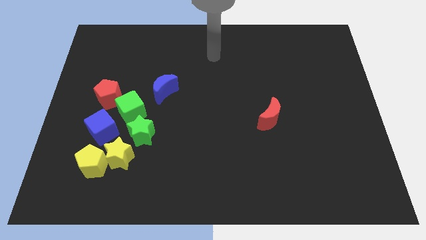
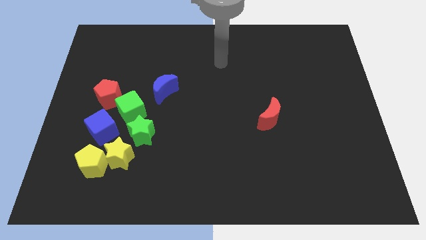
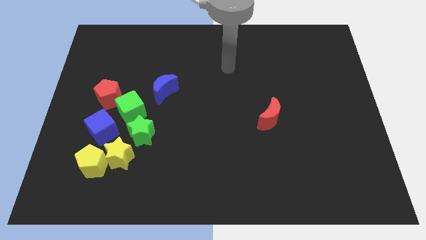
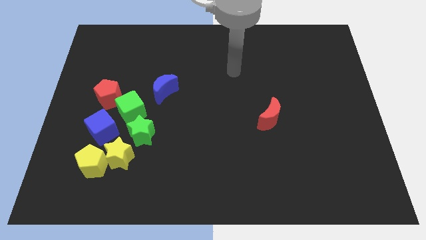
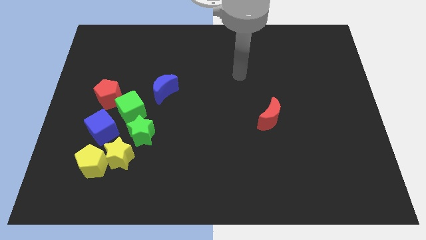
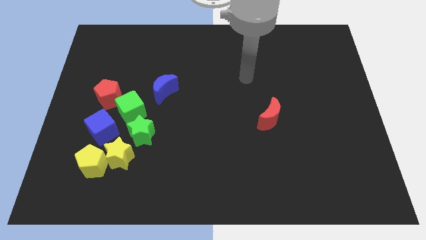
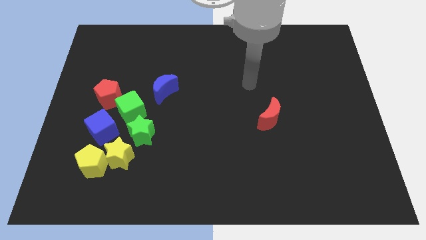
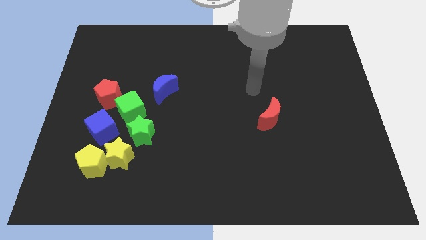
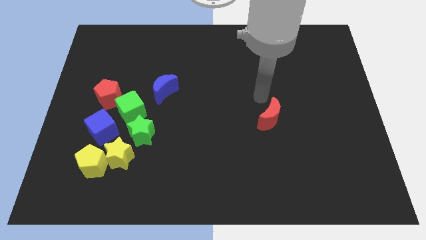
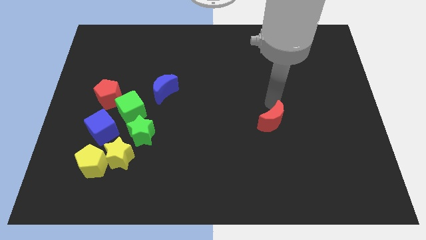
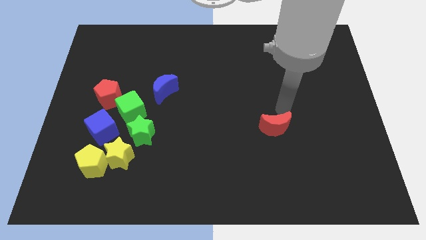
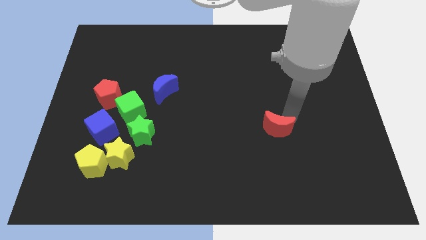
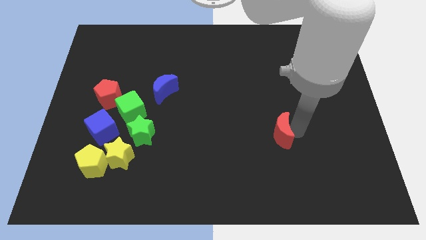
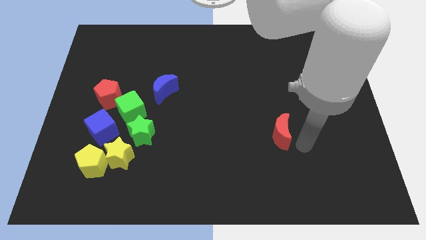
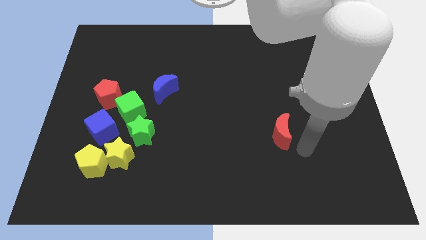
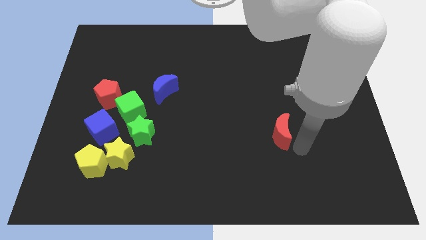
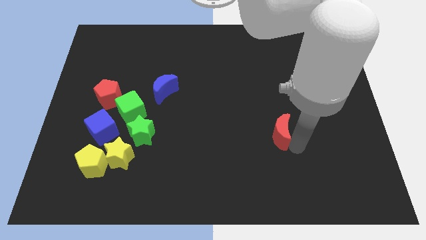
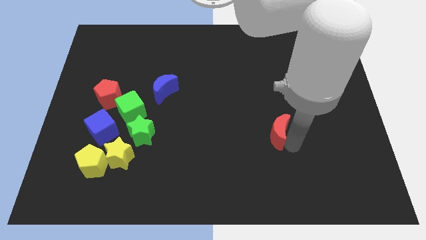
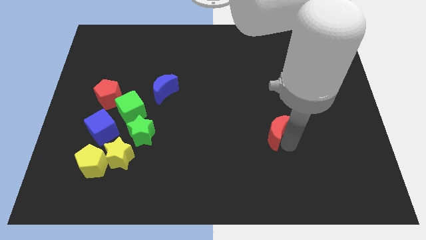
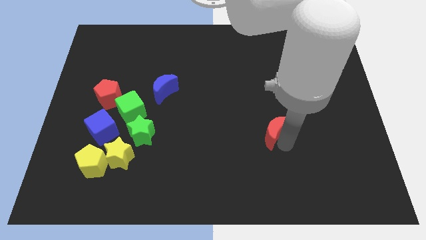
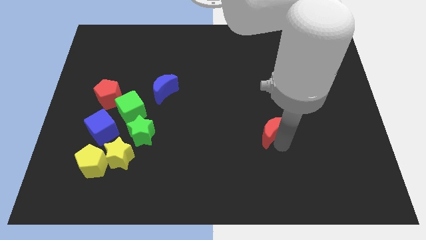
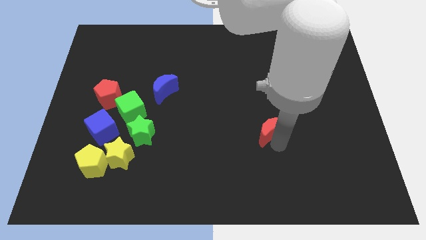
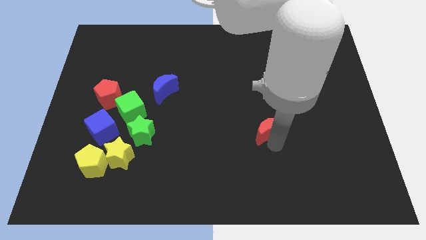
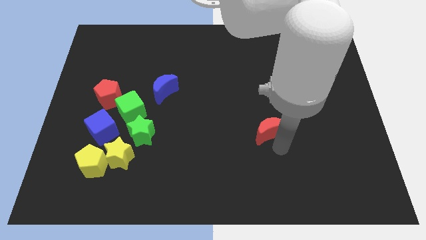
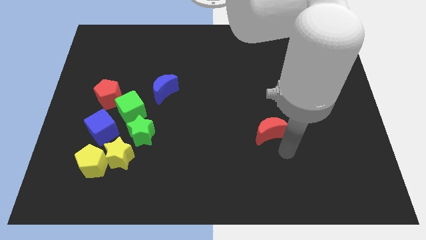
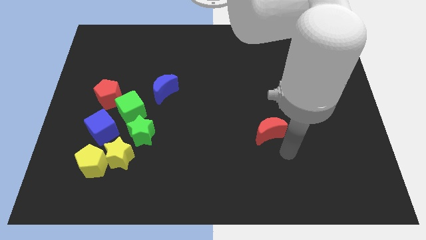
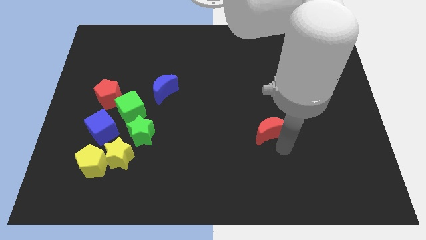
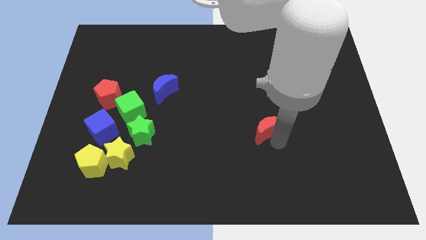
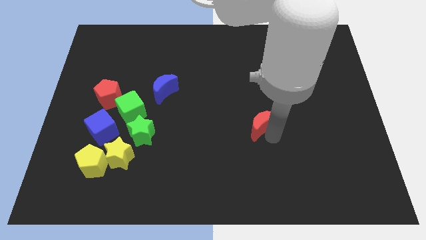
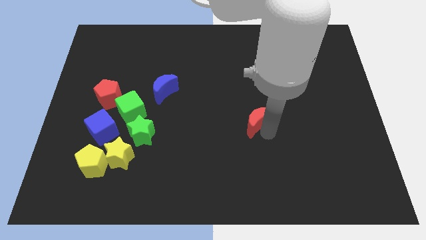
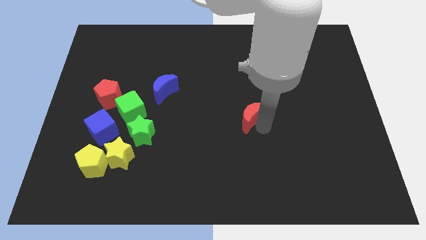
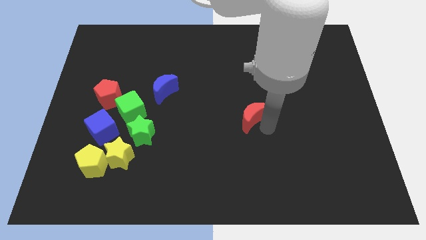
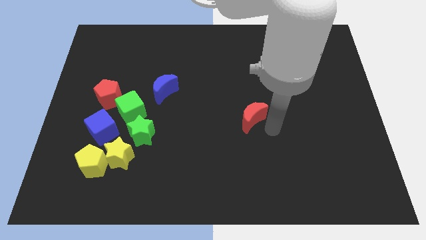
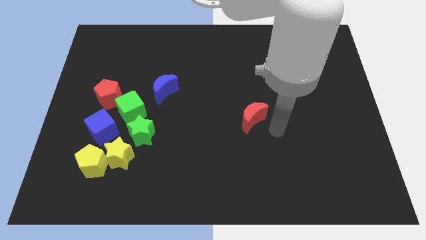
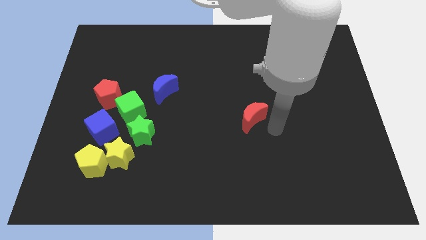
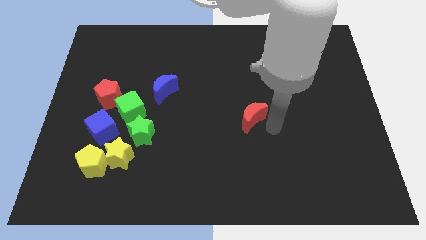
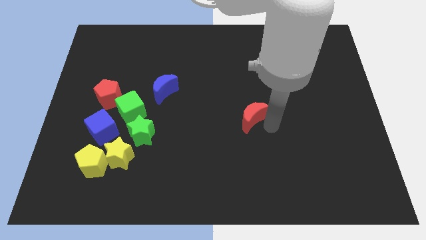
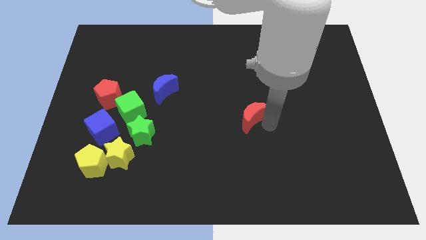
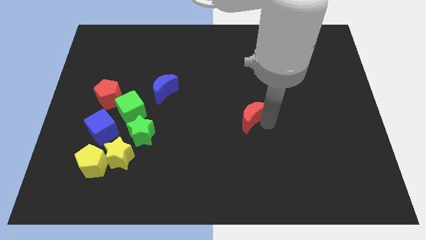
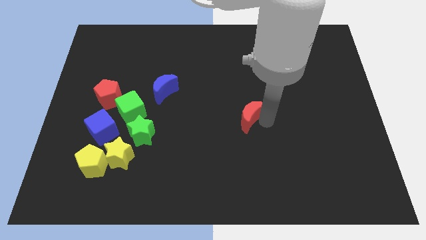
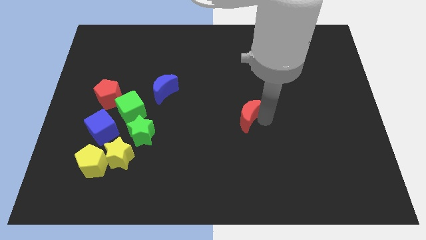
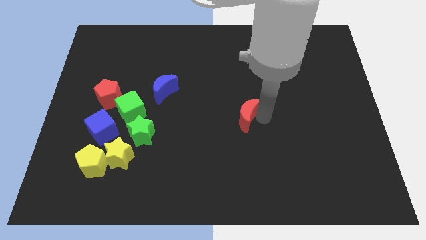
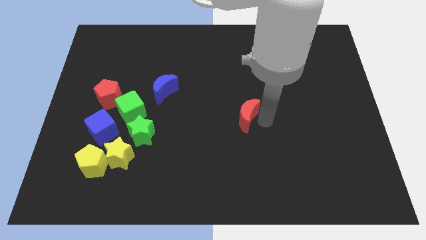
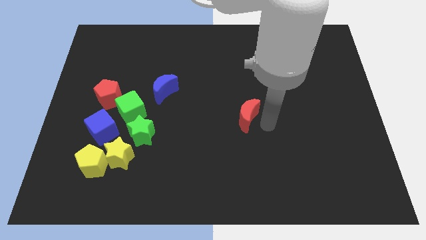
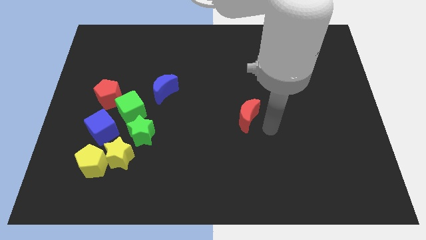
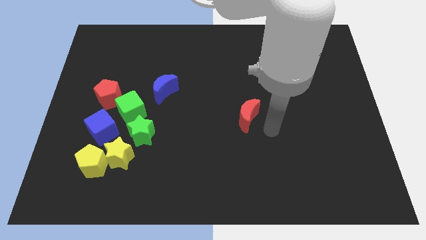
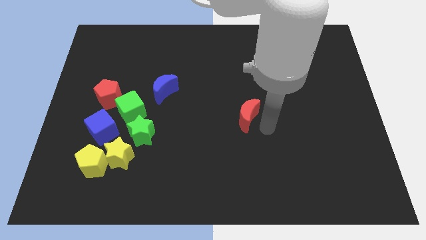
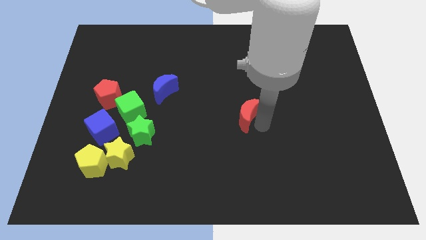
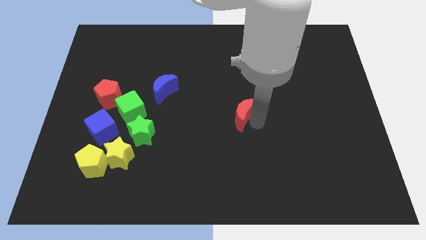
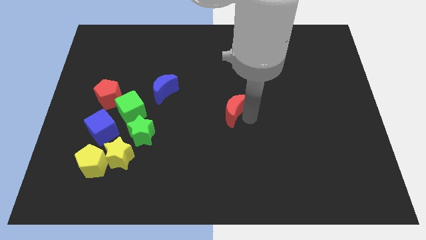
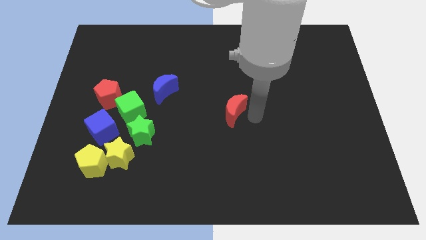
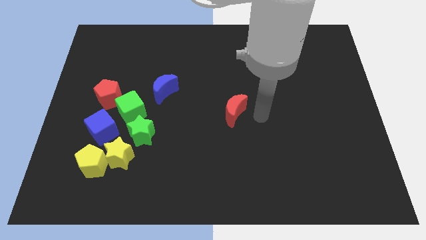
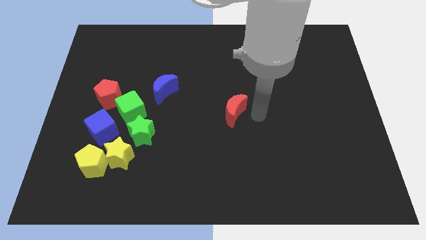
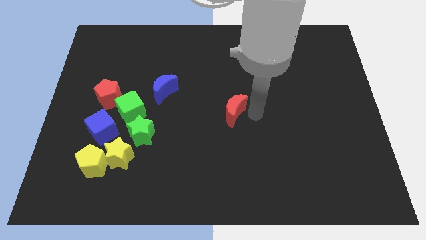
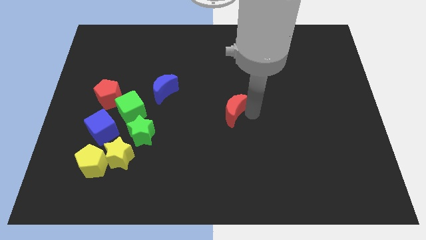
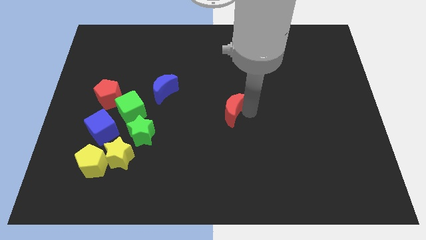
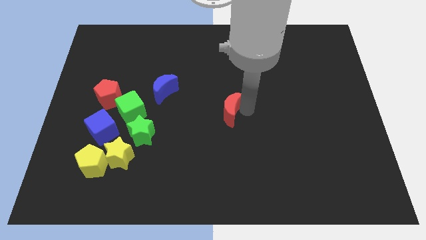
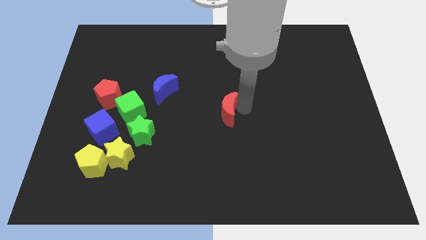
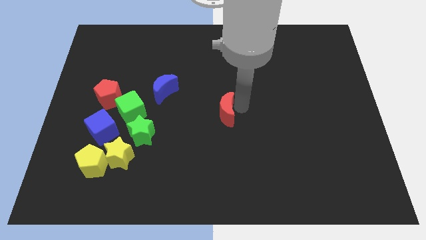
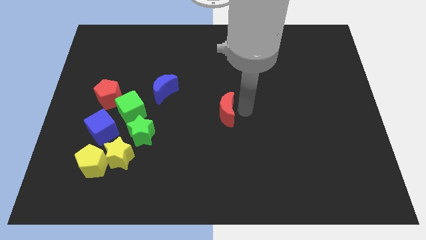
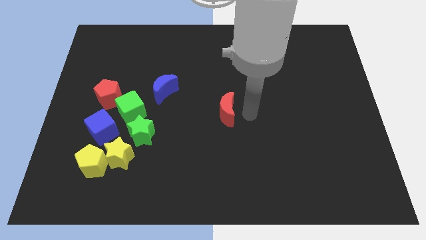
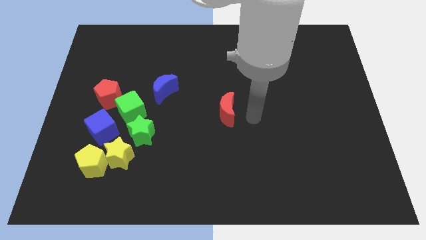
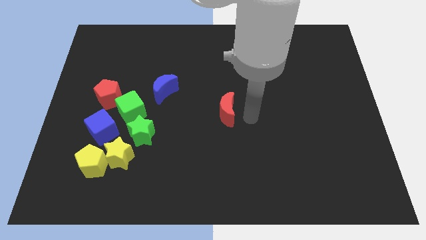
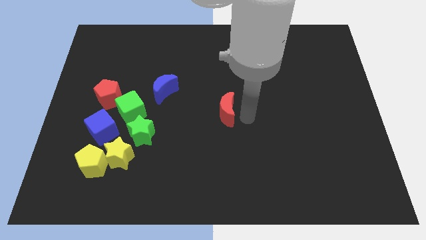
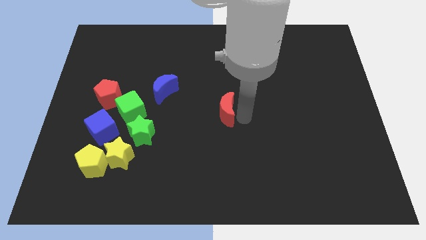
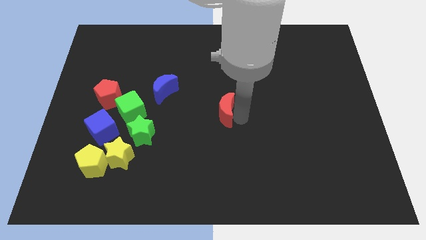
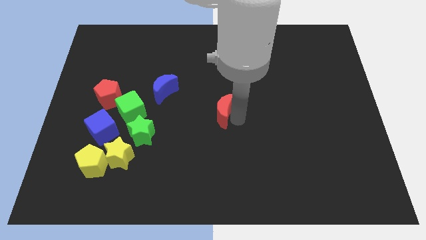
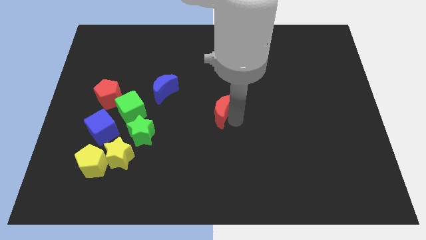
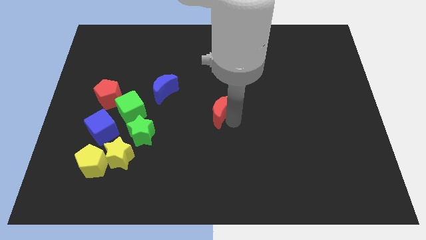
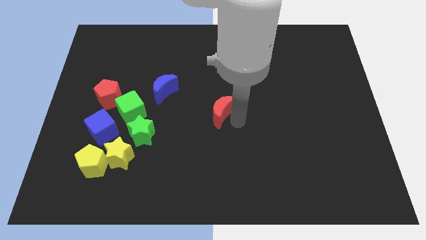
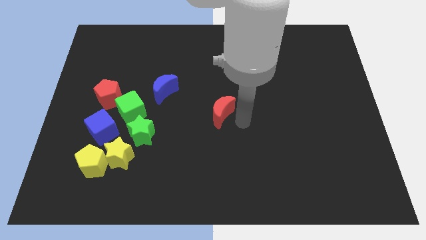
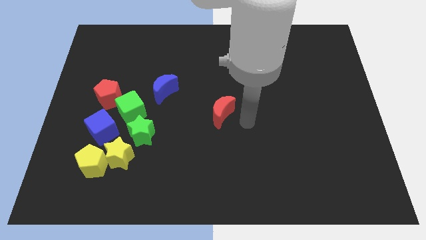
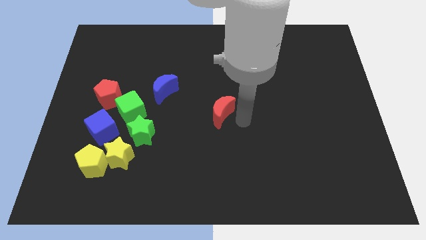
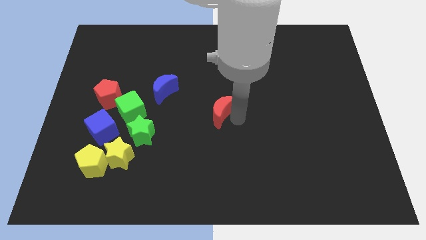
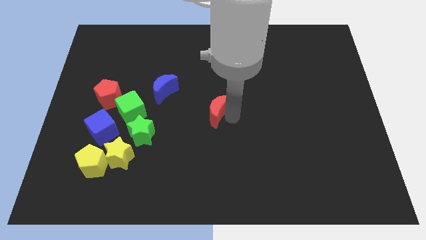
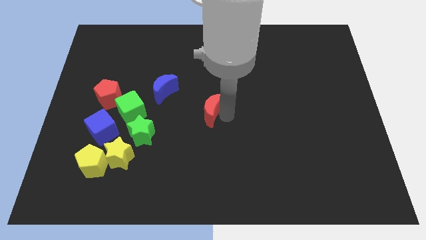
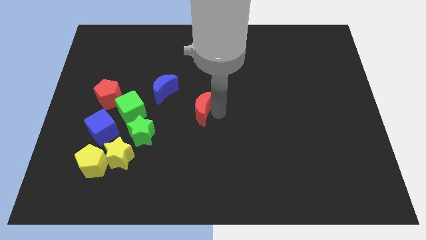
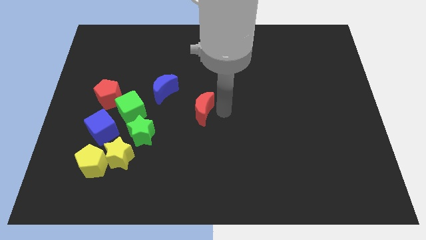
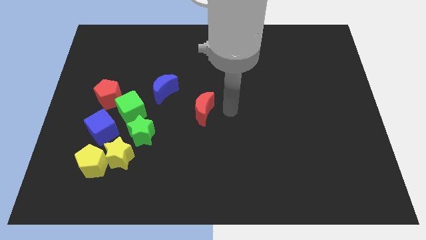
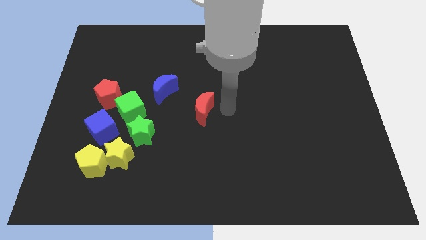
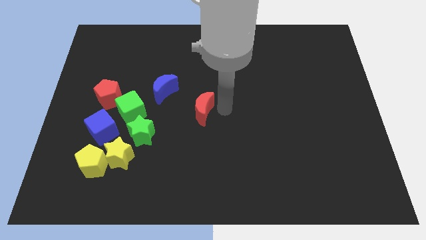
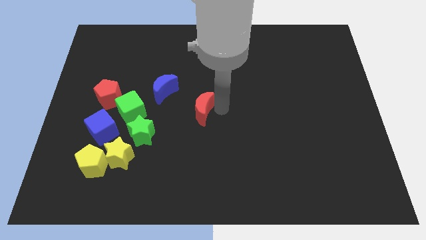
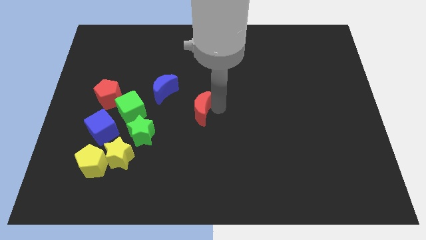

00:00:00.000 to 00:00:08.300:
move the red moon to the right of the green cube
